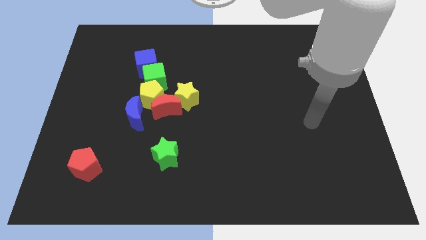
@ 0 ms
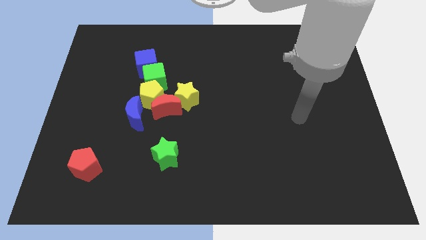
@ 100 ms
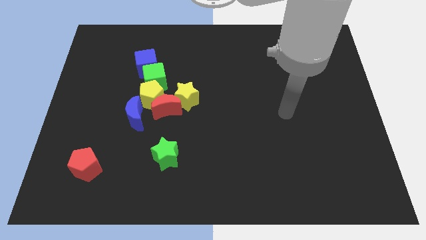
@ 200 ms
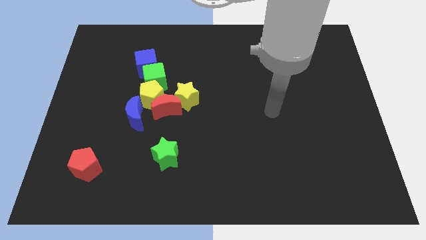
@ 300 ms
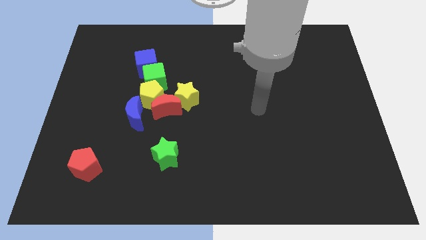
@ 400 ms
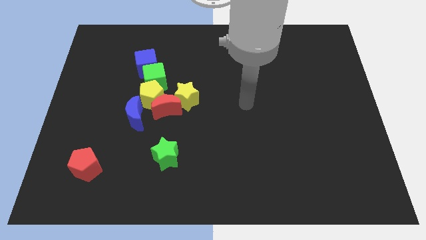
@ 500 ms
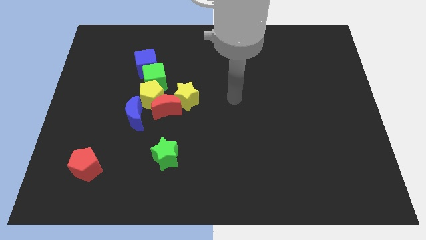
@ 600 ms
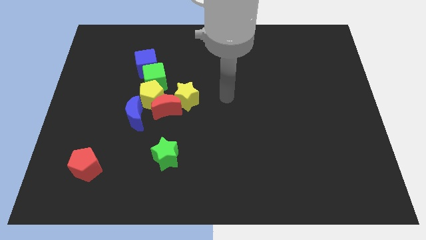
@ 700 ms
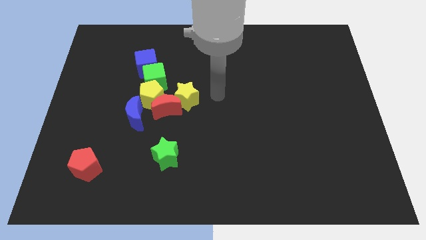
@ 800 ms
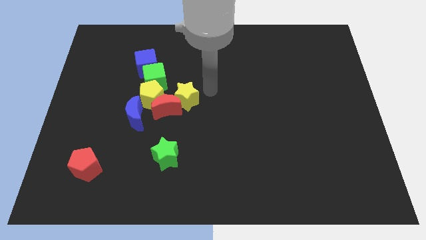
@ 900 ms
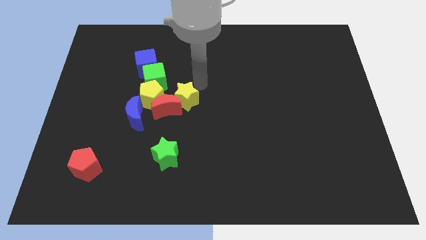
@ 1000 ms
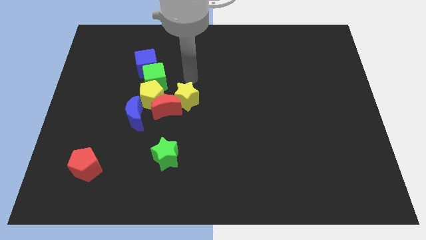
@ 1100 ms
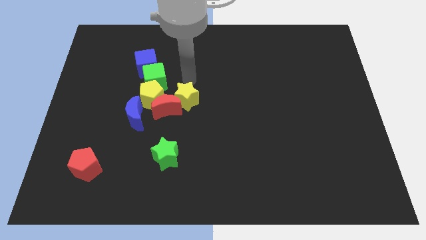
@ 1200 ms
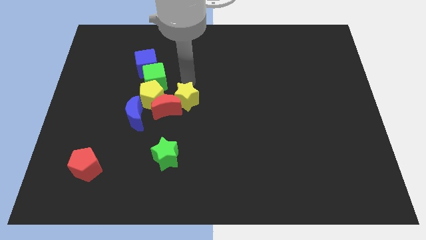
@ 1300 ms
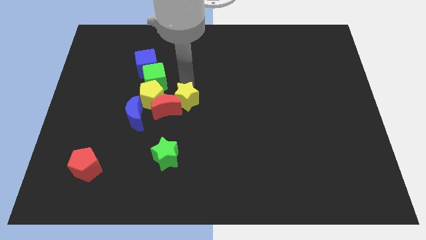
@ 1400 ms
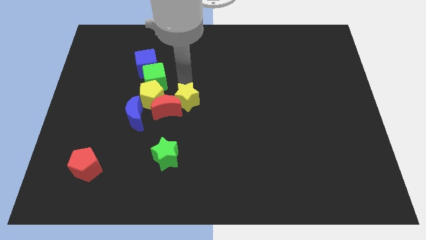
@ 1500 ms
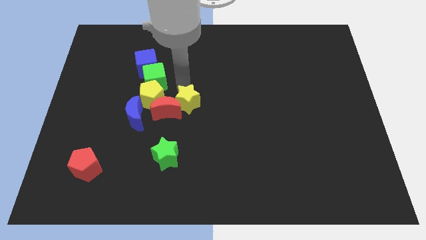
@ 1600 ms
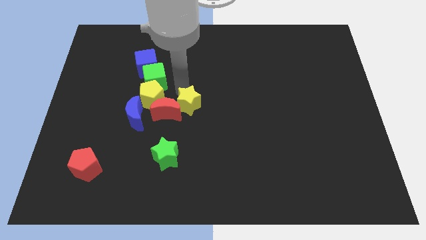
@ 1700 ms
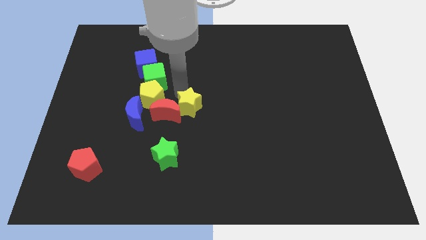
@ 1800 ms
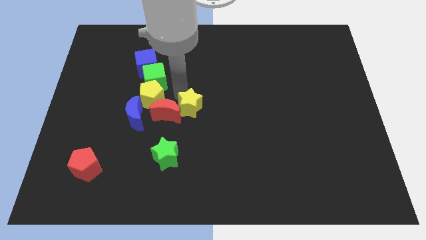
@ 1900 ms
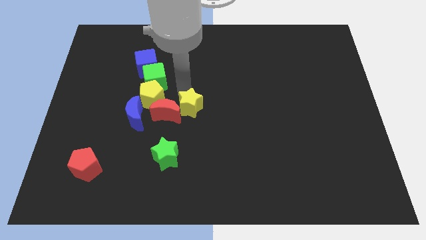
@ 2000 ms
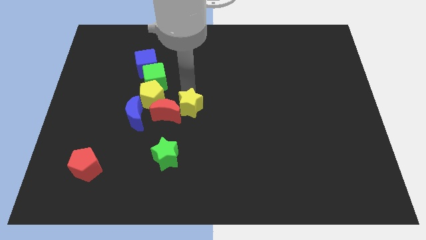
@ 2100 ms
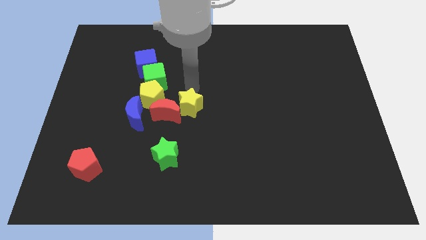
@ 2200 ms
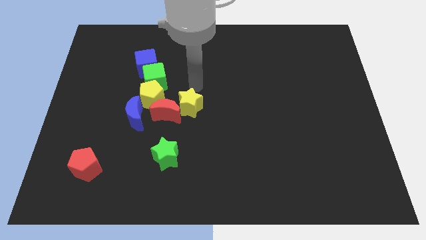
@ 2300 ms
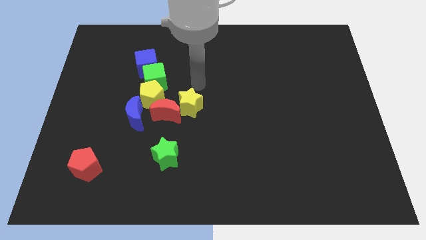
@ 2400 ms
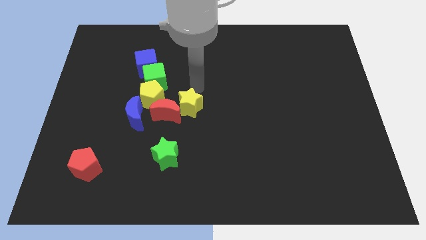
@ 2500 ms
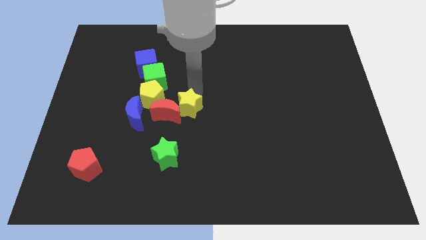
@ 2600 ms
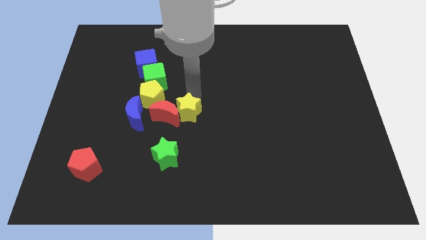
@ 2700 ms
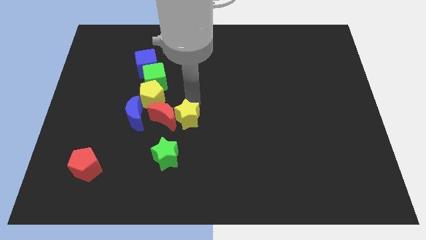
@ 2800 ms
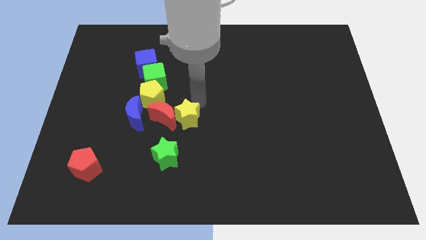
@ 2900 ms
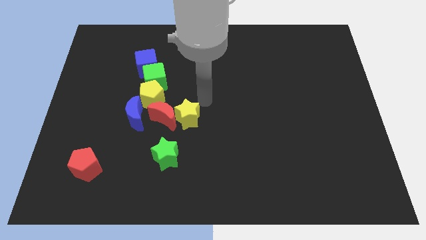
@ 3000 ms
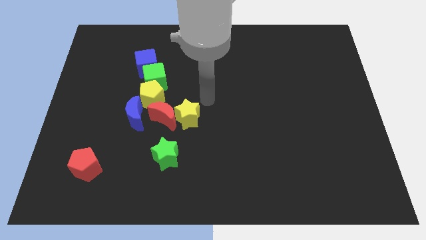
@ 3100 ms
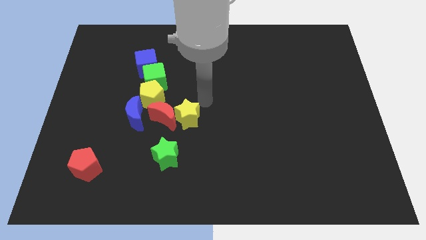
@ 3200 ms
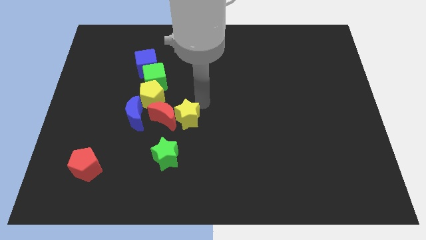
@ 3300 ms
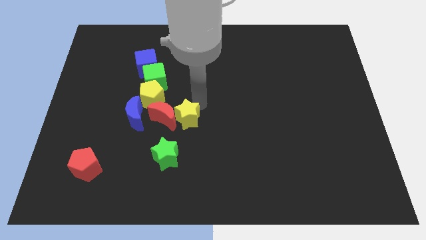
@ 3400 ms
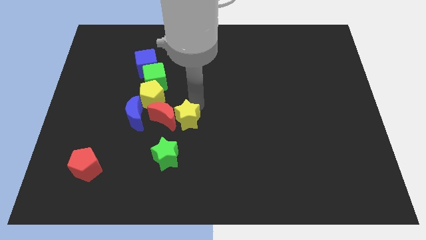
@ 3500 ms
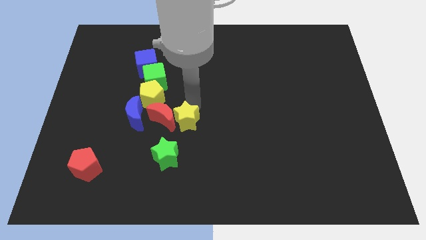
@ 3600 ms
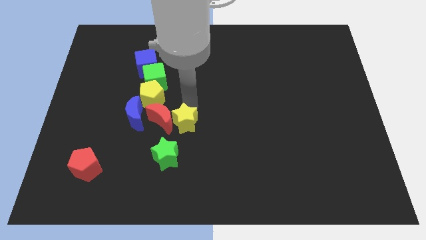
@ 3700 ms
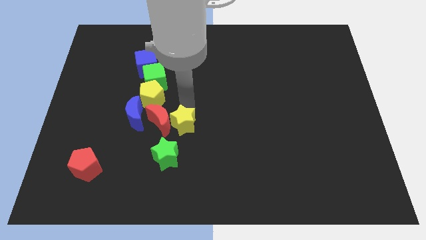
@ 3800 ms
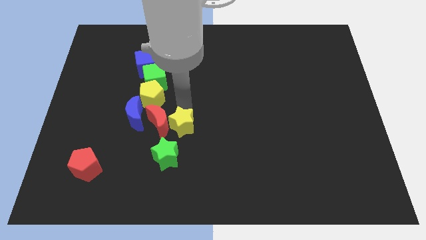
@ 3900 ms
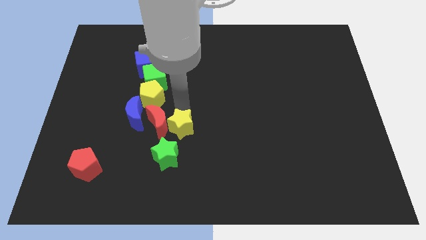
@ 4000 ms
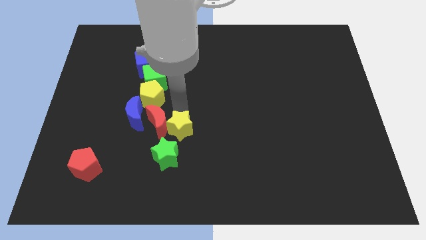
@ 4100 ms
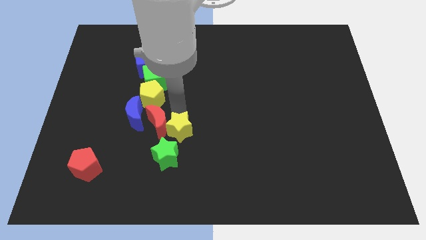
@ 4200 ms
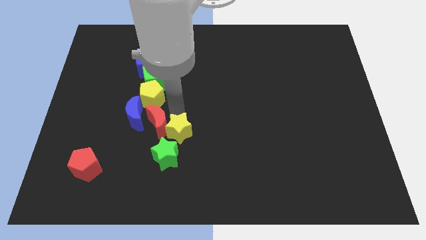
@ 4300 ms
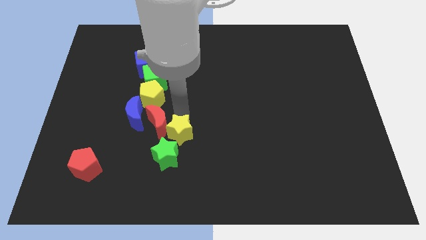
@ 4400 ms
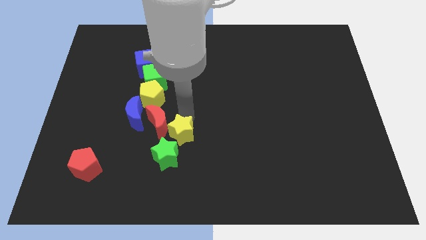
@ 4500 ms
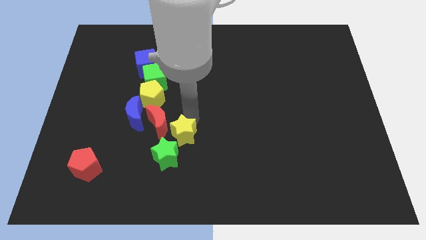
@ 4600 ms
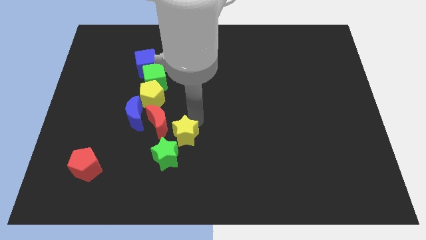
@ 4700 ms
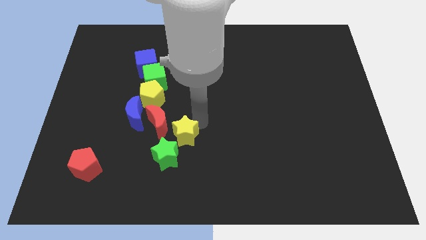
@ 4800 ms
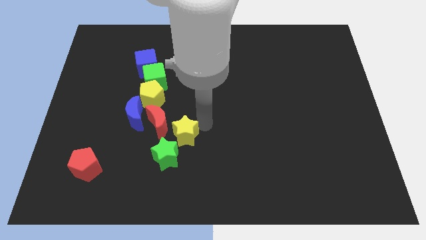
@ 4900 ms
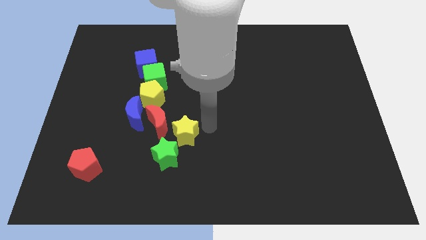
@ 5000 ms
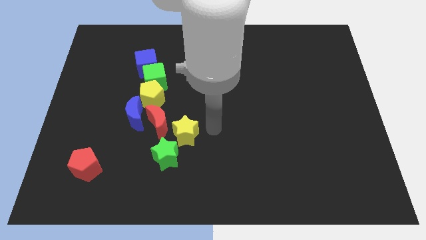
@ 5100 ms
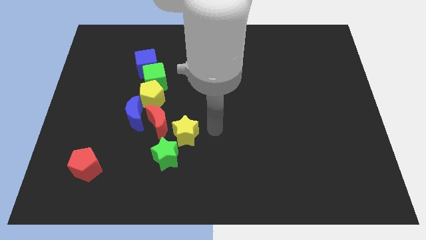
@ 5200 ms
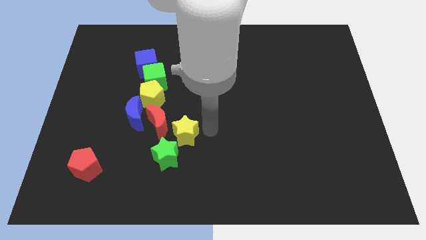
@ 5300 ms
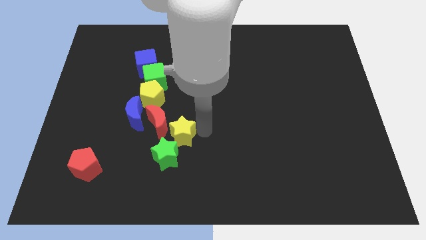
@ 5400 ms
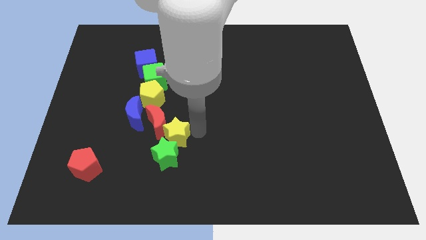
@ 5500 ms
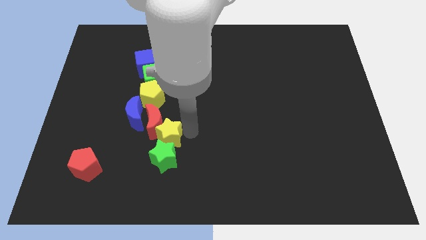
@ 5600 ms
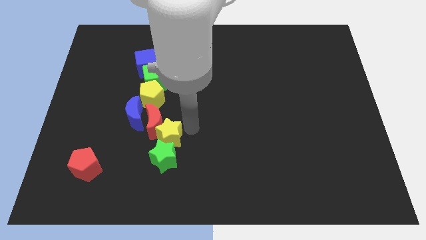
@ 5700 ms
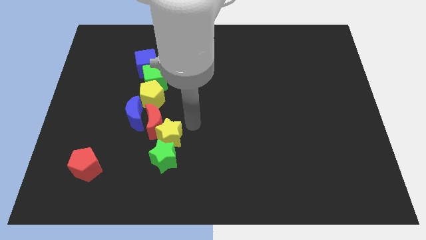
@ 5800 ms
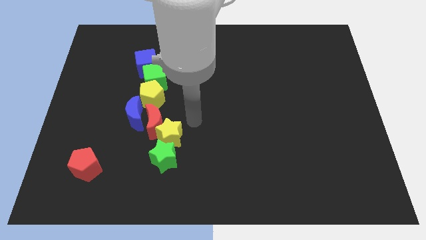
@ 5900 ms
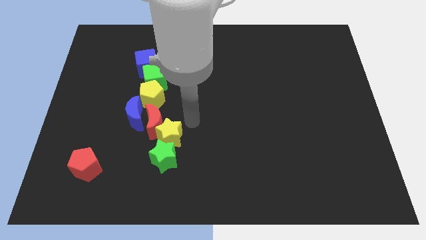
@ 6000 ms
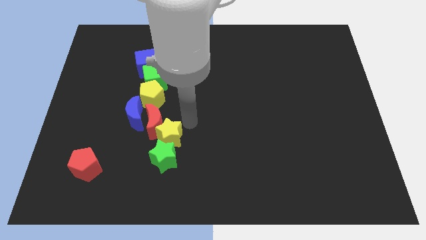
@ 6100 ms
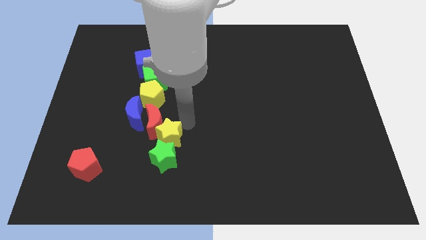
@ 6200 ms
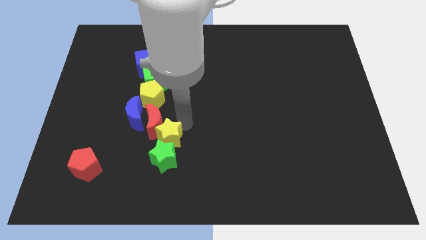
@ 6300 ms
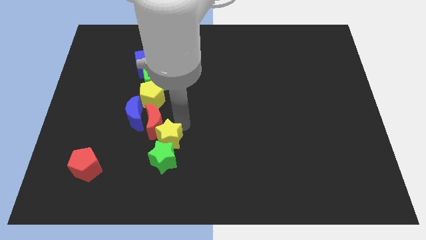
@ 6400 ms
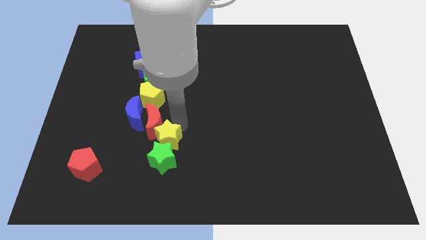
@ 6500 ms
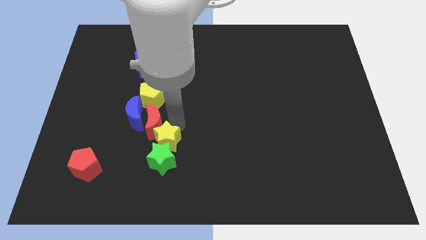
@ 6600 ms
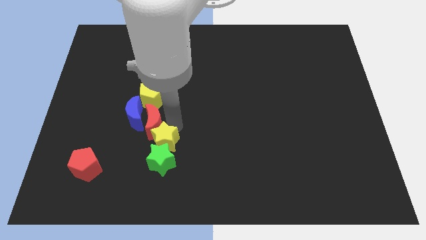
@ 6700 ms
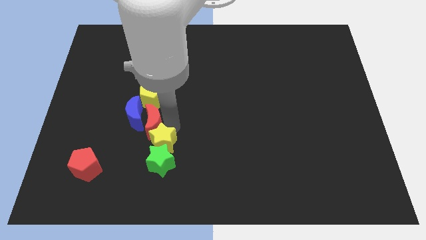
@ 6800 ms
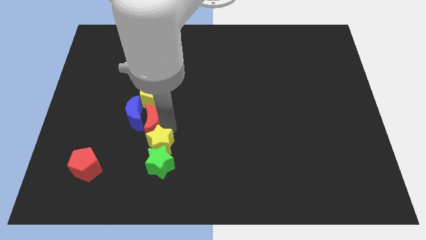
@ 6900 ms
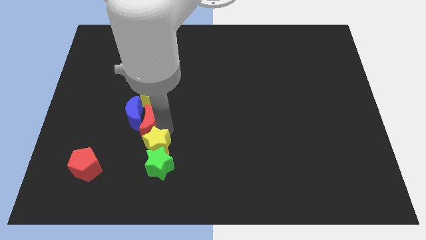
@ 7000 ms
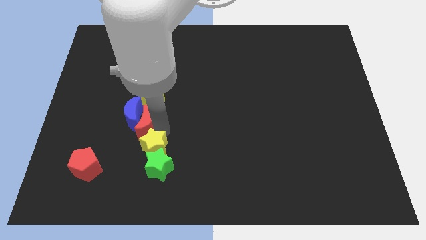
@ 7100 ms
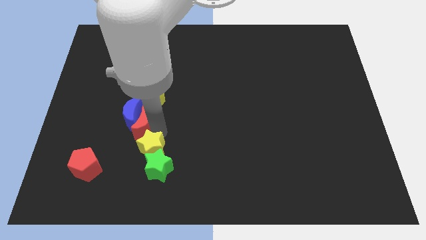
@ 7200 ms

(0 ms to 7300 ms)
slide the yellow star right of the red pentagon

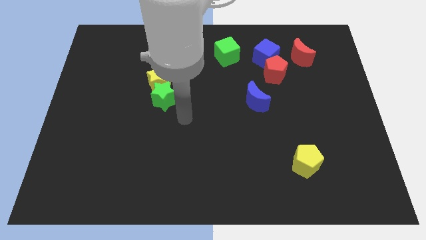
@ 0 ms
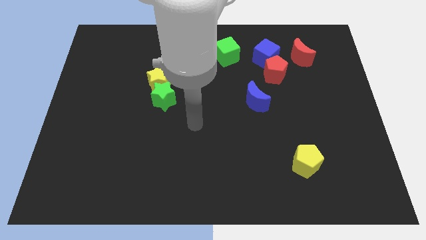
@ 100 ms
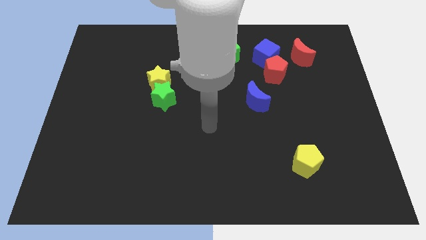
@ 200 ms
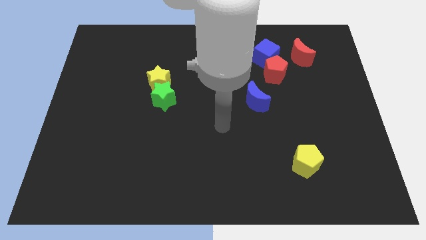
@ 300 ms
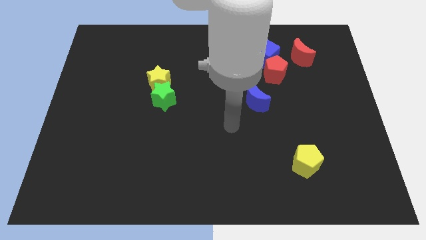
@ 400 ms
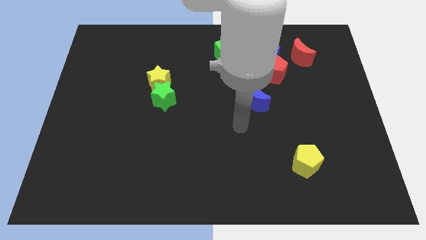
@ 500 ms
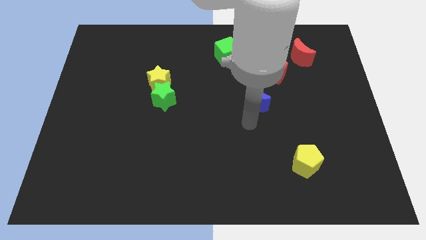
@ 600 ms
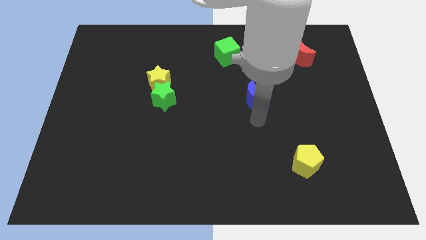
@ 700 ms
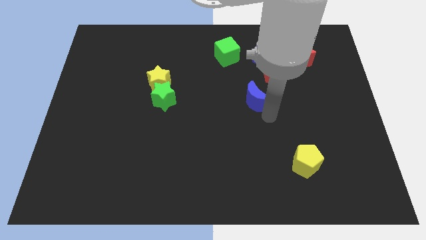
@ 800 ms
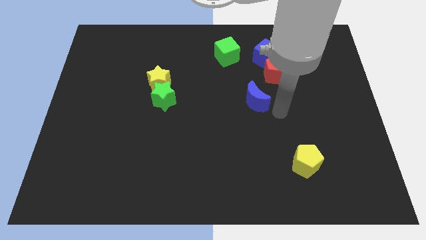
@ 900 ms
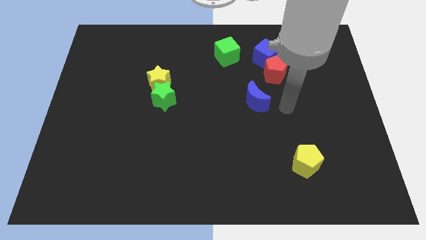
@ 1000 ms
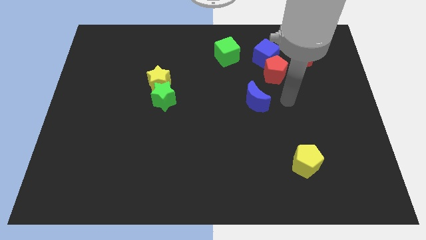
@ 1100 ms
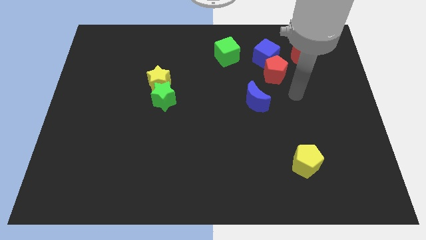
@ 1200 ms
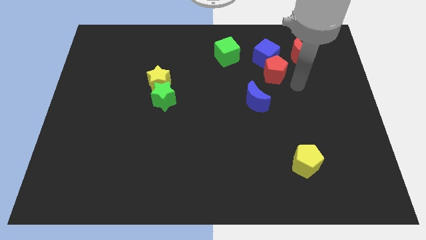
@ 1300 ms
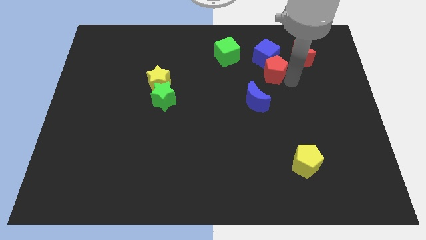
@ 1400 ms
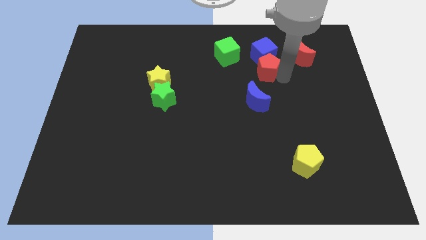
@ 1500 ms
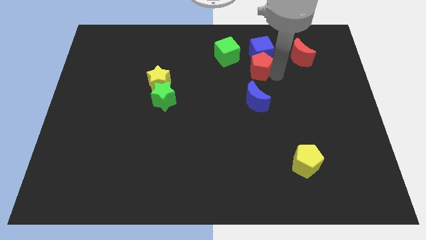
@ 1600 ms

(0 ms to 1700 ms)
slide the red pentagon to the left of the red moon
